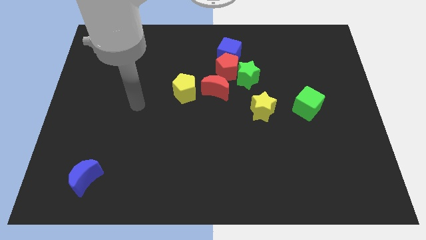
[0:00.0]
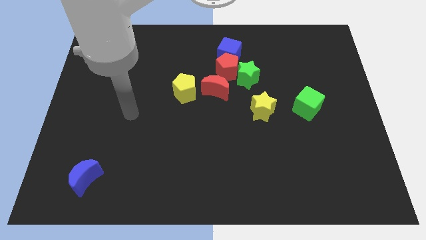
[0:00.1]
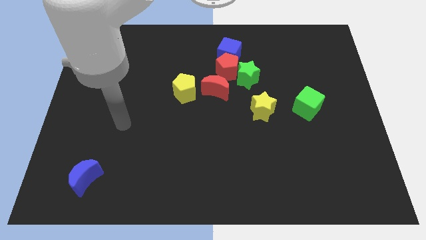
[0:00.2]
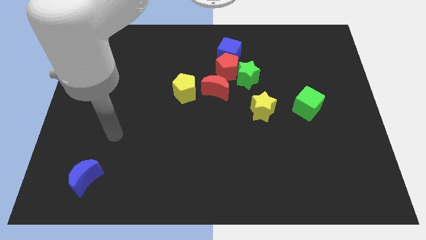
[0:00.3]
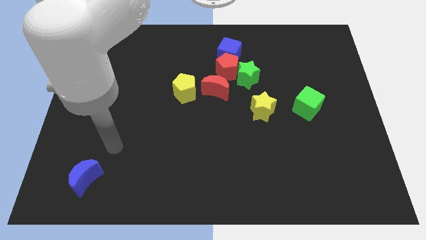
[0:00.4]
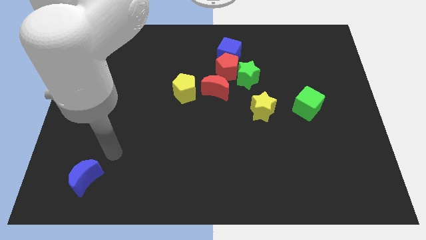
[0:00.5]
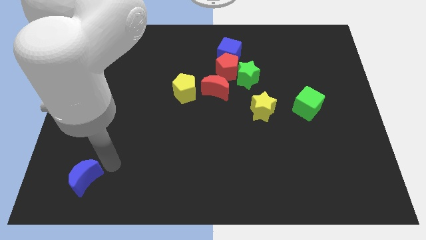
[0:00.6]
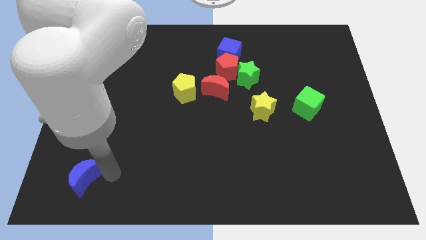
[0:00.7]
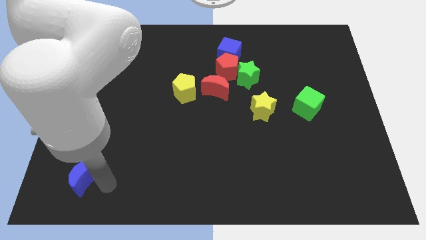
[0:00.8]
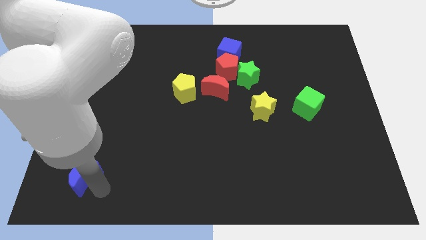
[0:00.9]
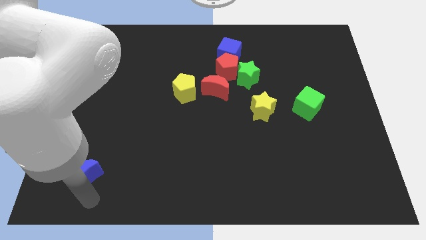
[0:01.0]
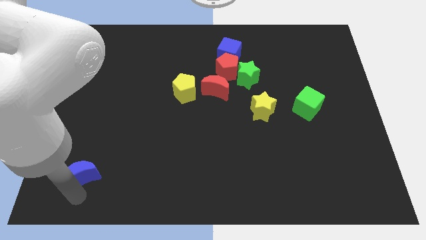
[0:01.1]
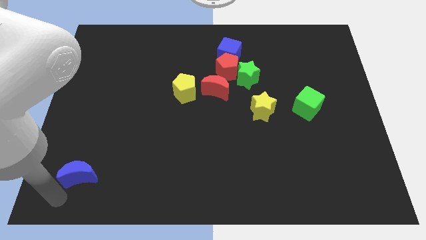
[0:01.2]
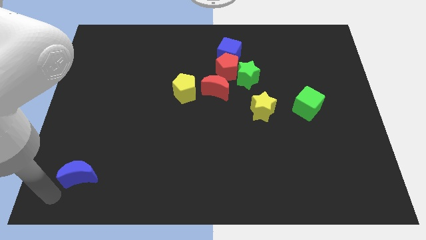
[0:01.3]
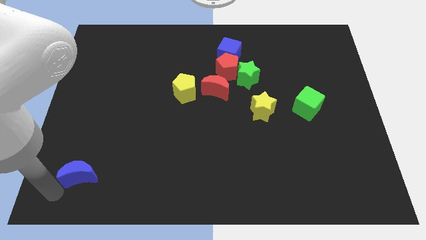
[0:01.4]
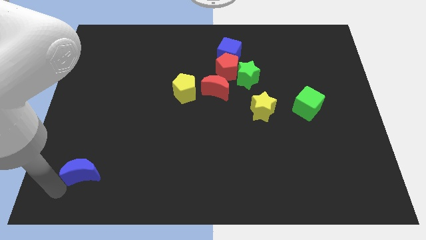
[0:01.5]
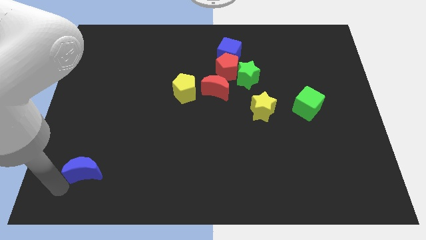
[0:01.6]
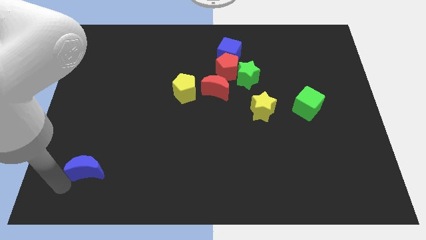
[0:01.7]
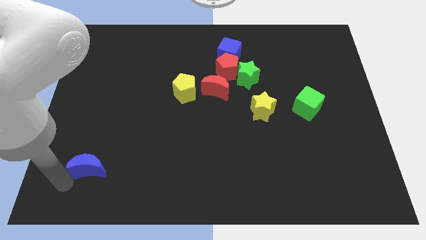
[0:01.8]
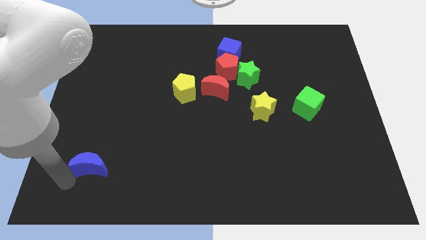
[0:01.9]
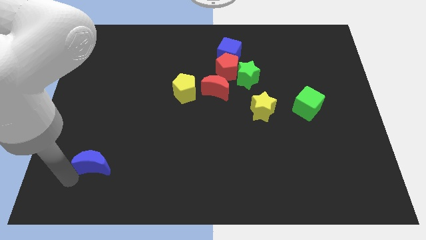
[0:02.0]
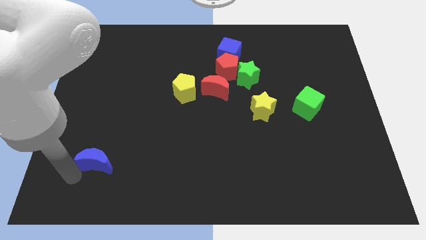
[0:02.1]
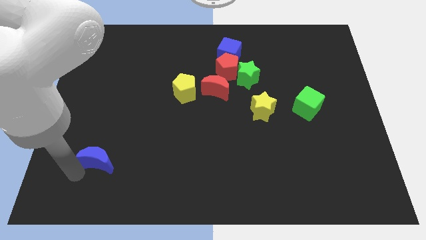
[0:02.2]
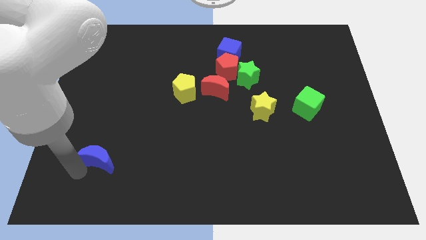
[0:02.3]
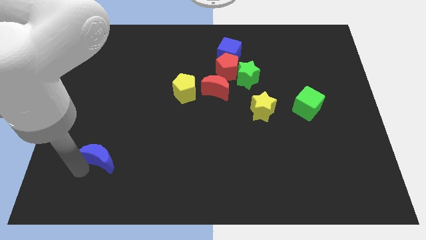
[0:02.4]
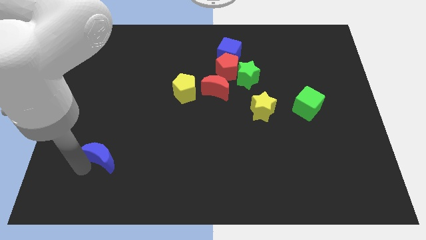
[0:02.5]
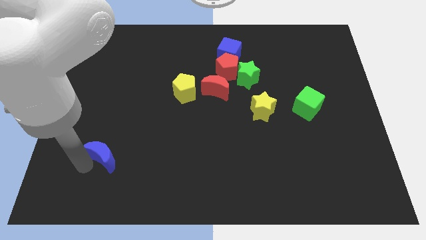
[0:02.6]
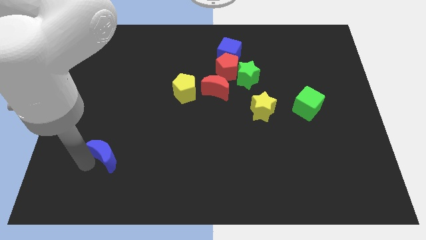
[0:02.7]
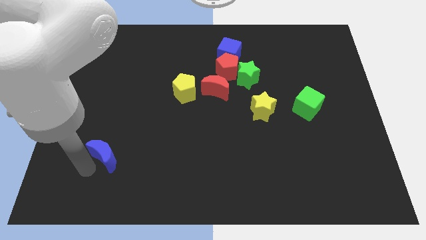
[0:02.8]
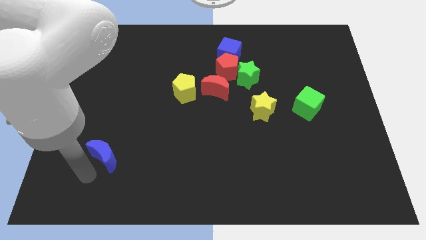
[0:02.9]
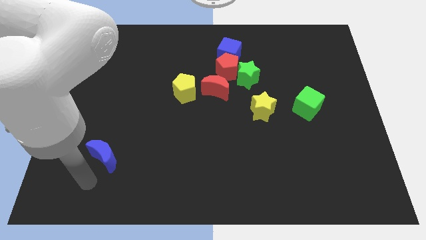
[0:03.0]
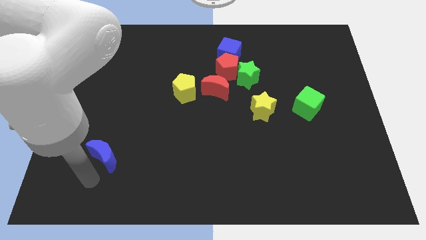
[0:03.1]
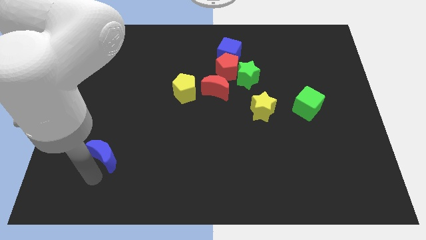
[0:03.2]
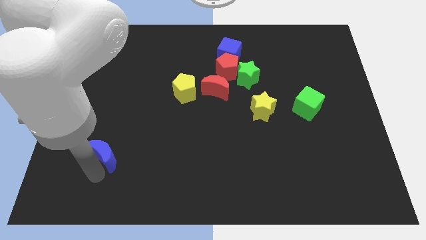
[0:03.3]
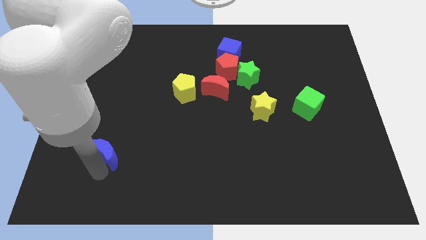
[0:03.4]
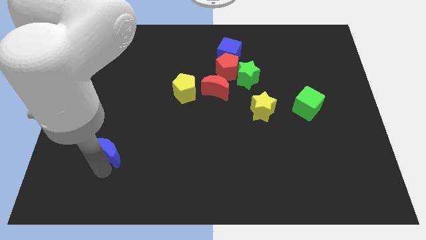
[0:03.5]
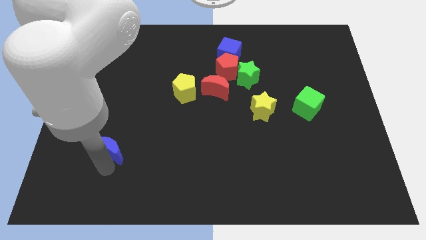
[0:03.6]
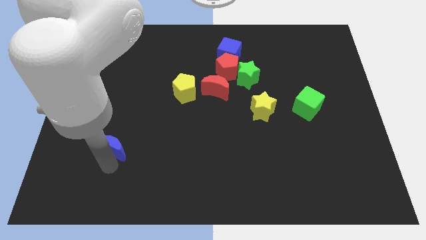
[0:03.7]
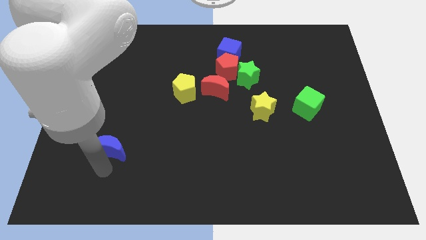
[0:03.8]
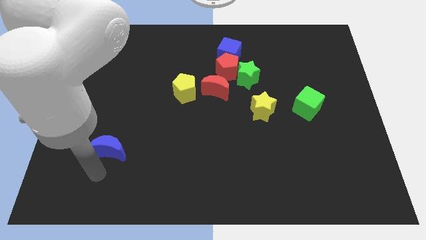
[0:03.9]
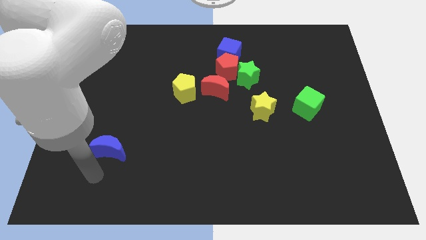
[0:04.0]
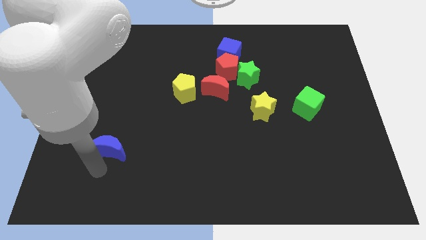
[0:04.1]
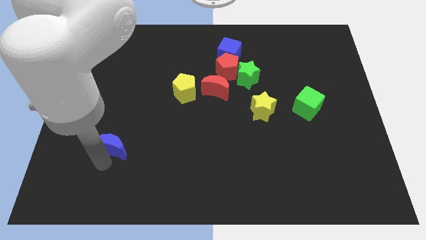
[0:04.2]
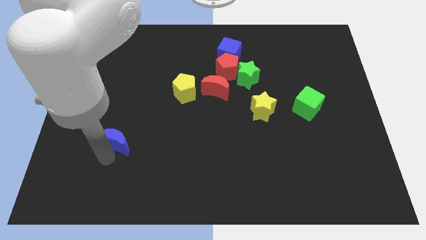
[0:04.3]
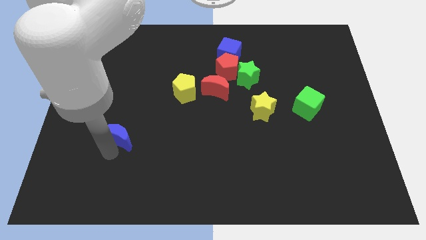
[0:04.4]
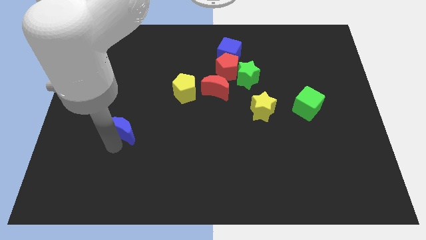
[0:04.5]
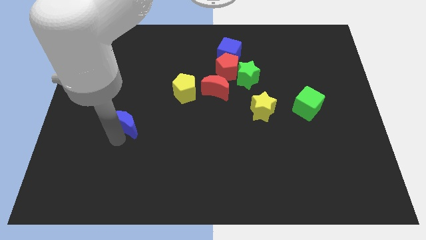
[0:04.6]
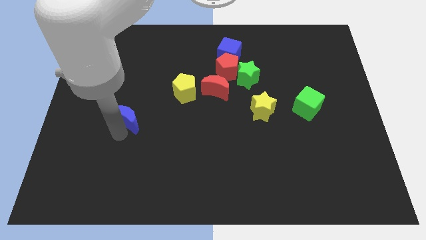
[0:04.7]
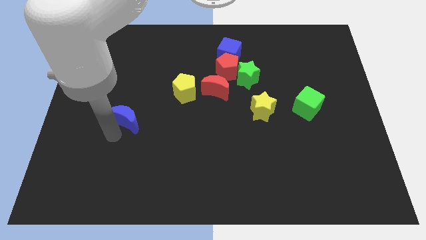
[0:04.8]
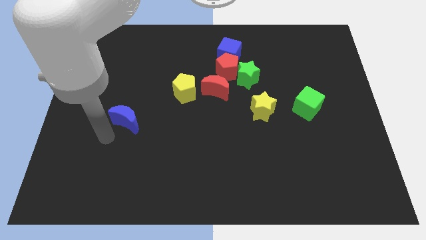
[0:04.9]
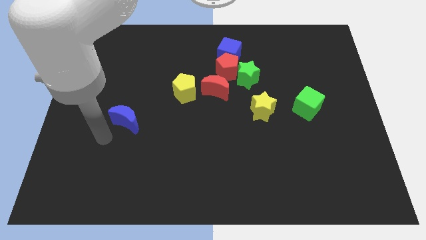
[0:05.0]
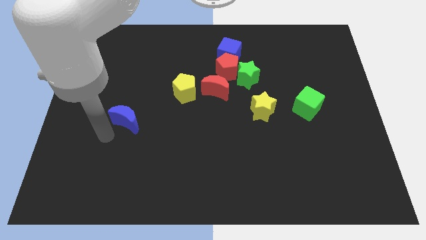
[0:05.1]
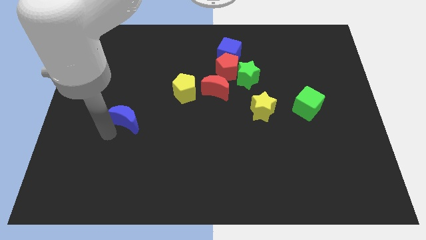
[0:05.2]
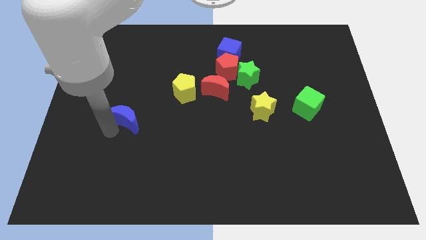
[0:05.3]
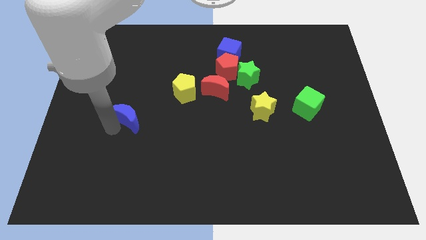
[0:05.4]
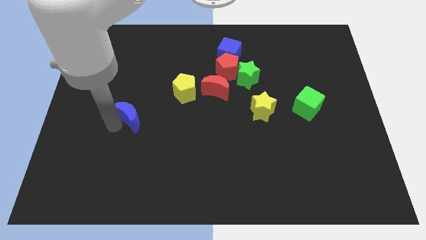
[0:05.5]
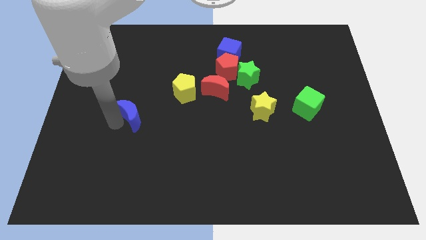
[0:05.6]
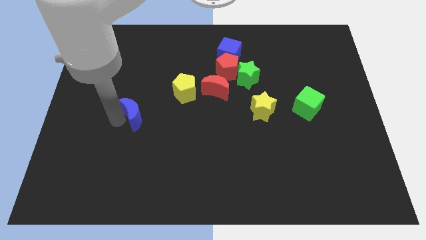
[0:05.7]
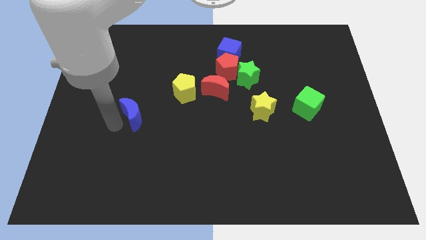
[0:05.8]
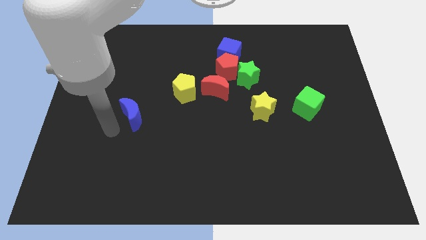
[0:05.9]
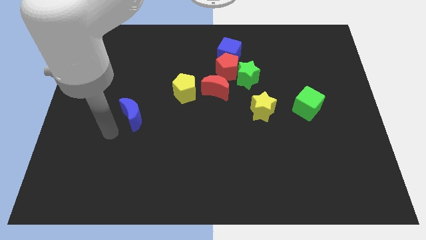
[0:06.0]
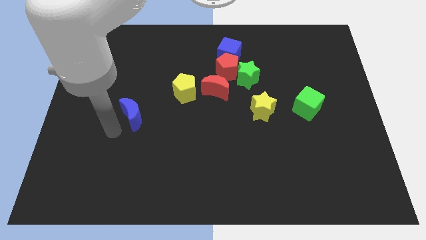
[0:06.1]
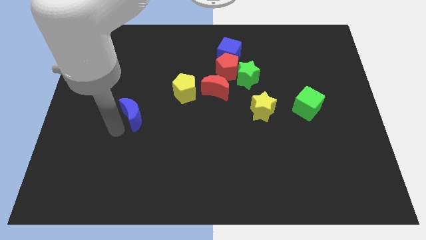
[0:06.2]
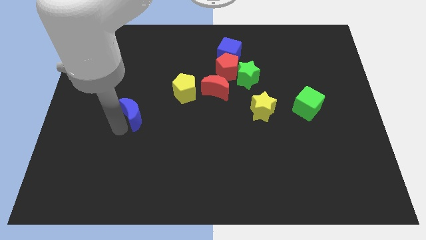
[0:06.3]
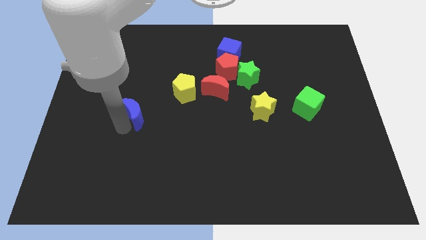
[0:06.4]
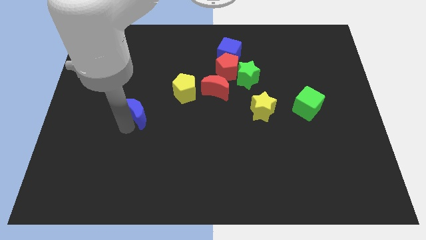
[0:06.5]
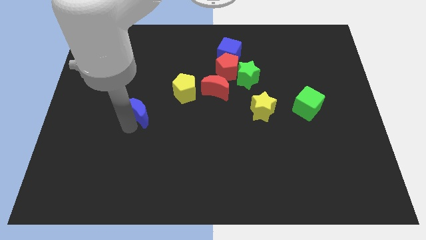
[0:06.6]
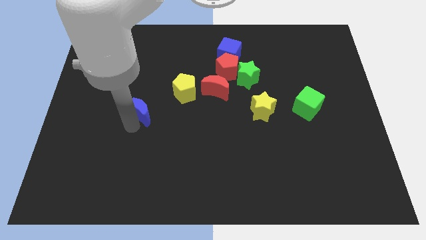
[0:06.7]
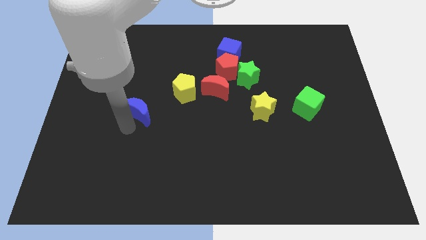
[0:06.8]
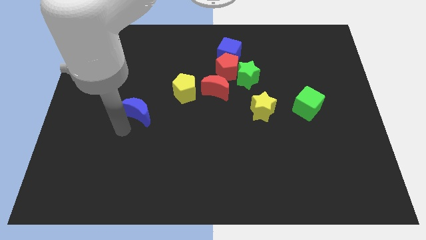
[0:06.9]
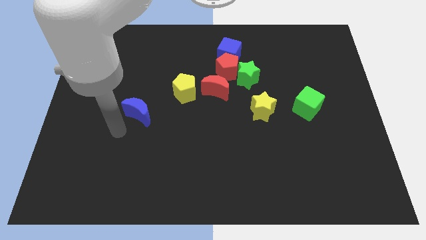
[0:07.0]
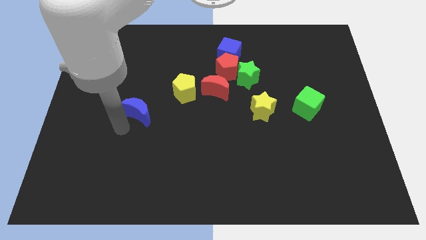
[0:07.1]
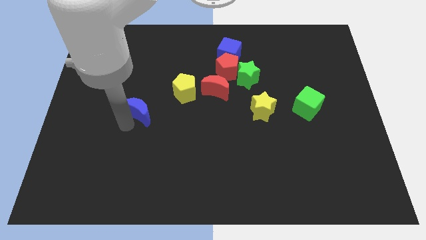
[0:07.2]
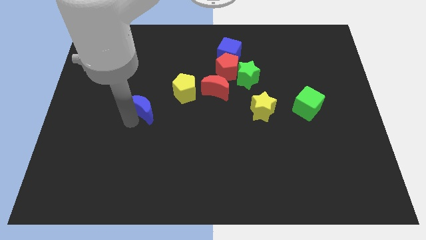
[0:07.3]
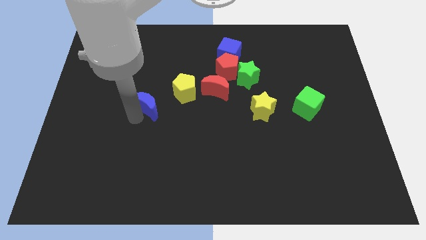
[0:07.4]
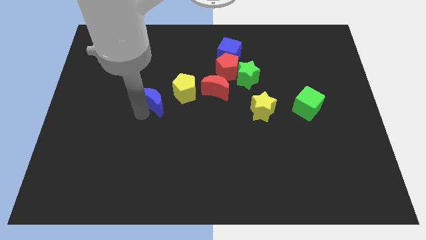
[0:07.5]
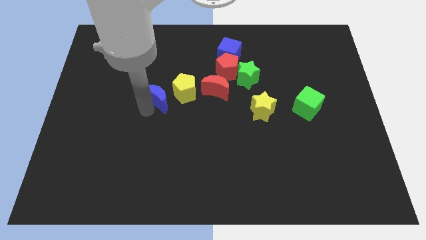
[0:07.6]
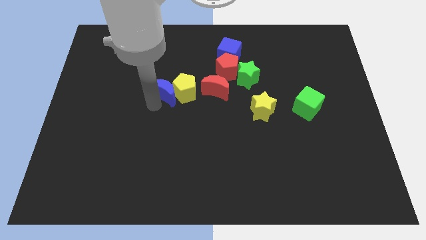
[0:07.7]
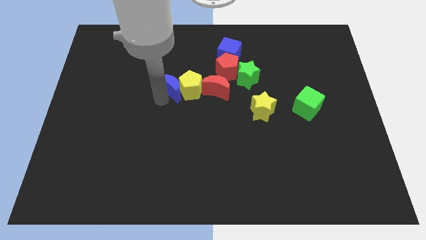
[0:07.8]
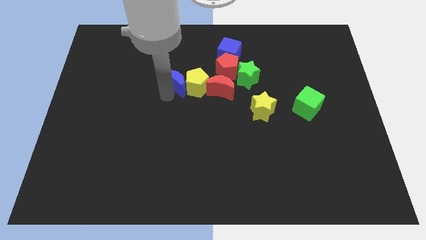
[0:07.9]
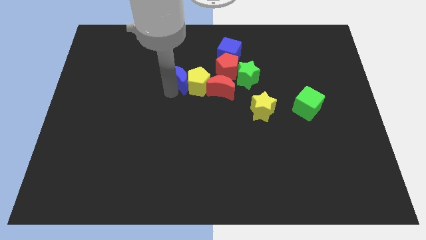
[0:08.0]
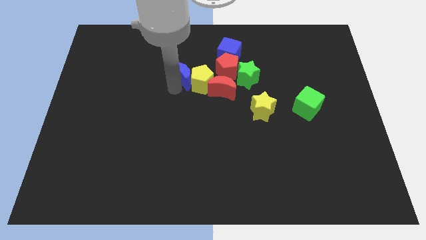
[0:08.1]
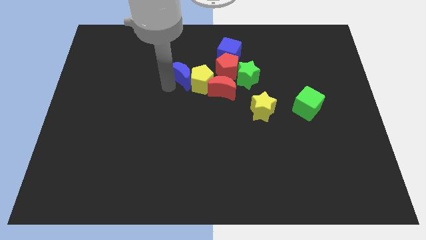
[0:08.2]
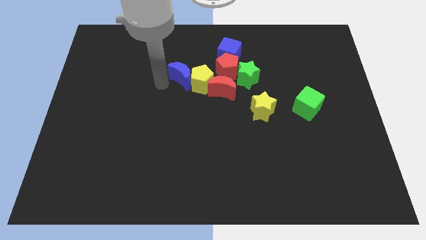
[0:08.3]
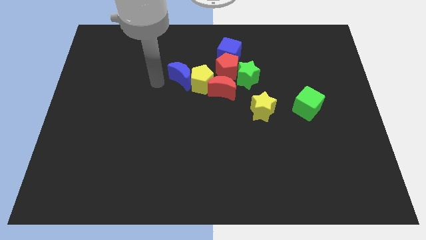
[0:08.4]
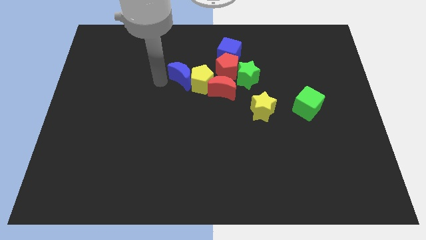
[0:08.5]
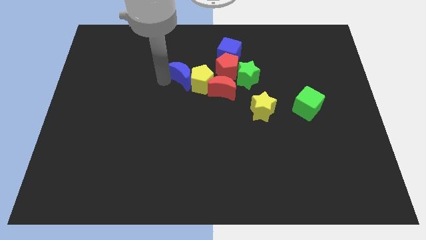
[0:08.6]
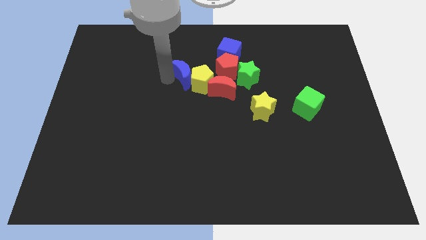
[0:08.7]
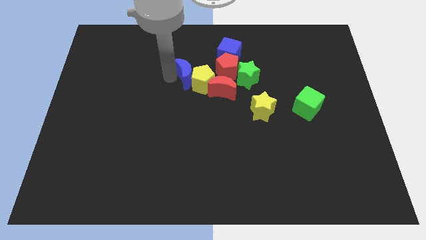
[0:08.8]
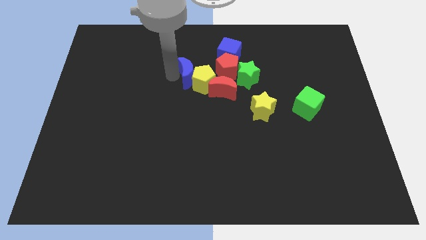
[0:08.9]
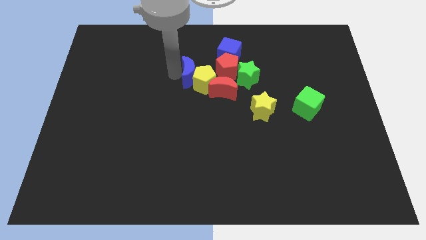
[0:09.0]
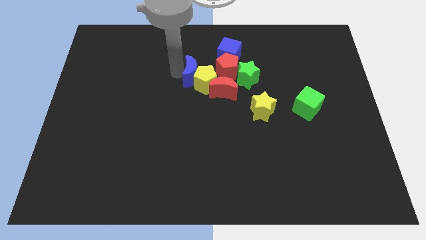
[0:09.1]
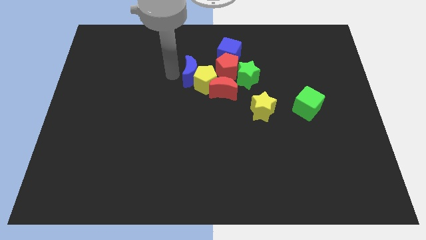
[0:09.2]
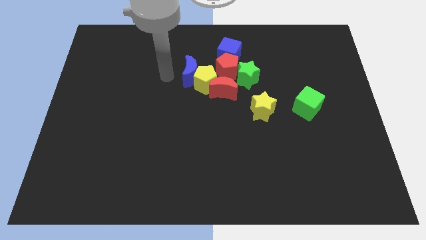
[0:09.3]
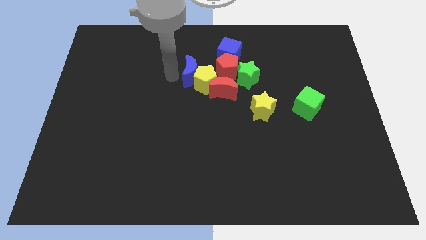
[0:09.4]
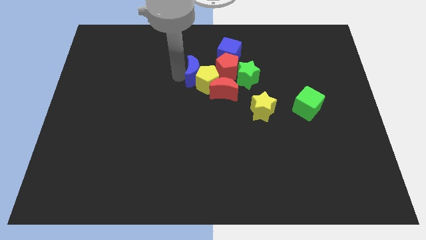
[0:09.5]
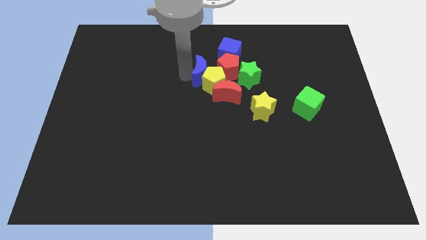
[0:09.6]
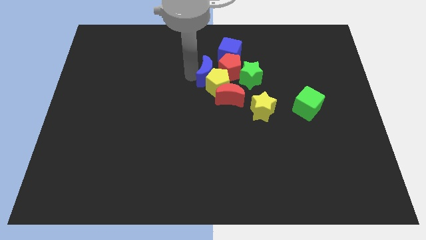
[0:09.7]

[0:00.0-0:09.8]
put the blue moon towards the red pentagon
